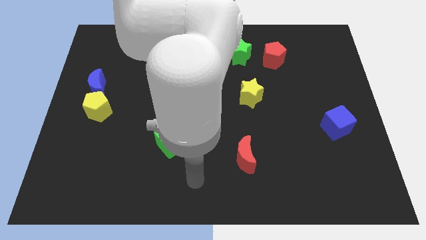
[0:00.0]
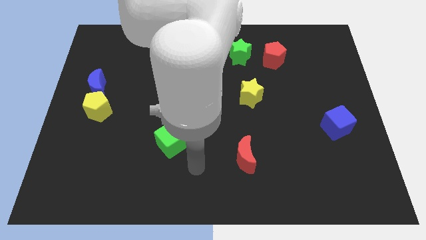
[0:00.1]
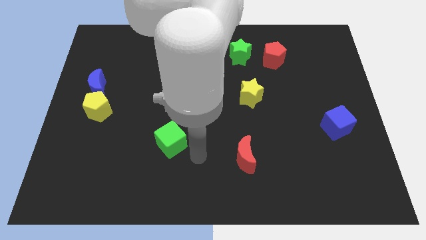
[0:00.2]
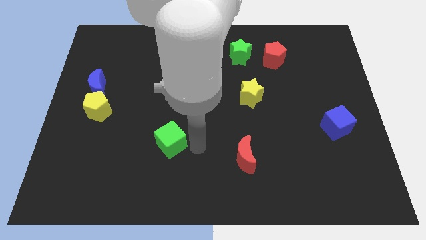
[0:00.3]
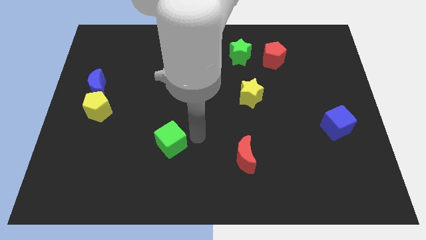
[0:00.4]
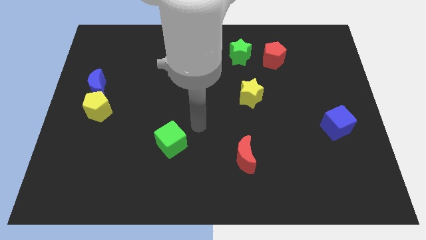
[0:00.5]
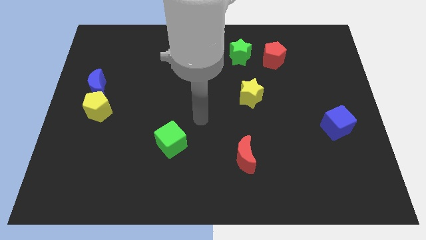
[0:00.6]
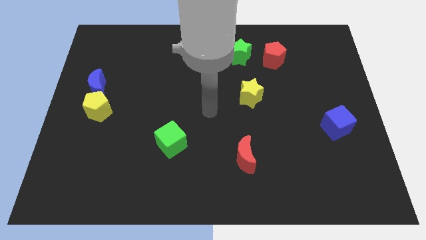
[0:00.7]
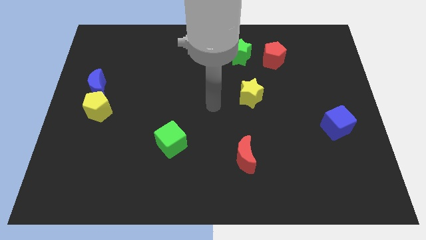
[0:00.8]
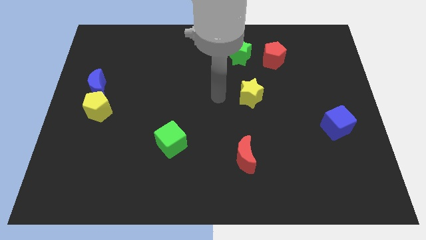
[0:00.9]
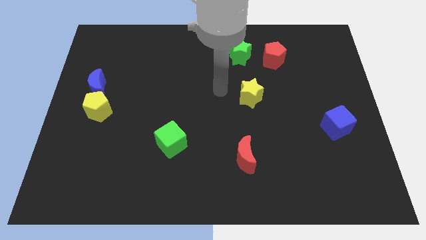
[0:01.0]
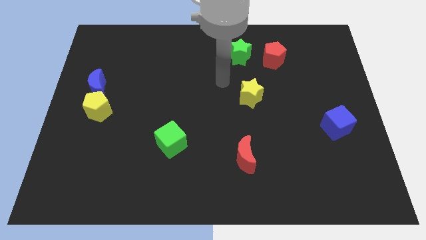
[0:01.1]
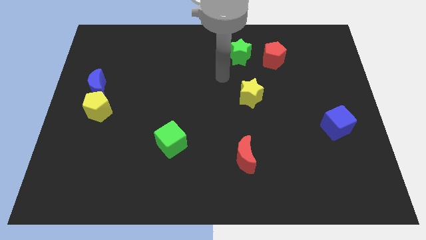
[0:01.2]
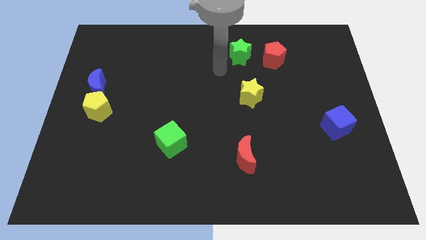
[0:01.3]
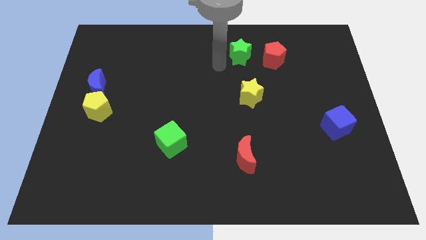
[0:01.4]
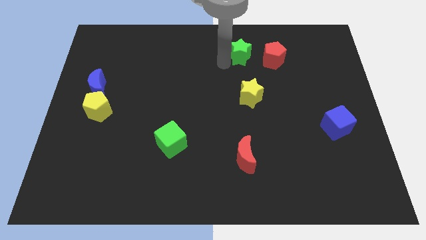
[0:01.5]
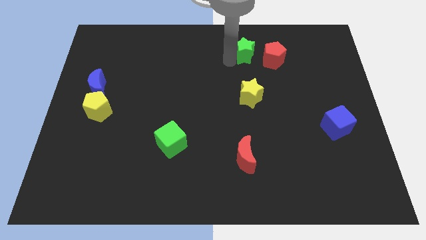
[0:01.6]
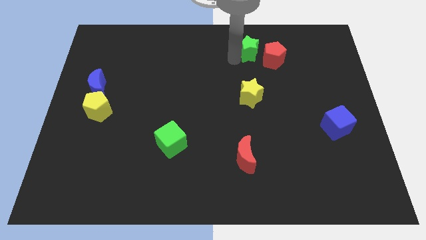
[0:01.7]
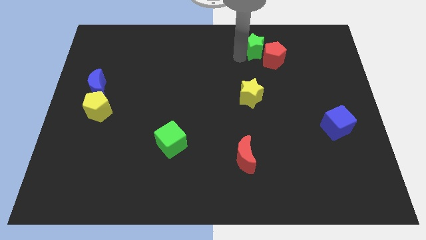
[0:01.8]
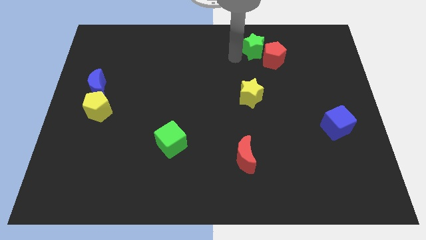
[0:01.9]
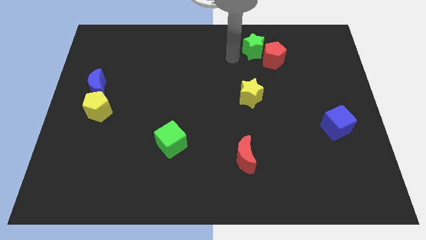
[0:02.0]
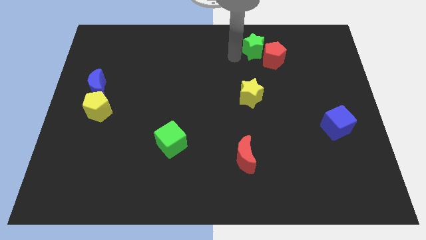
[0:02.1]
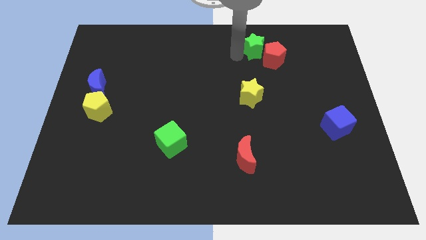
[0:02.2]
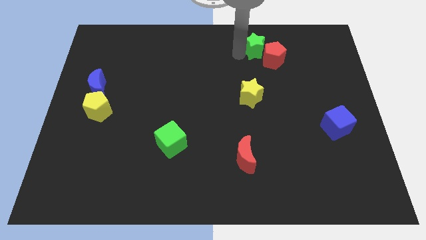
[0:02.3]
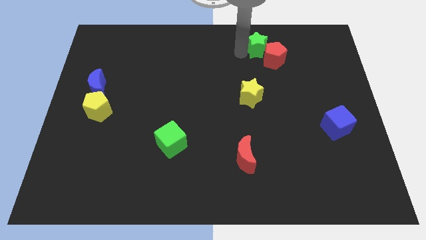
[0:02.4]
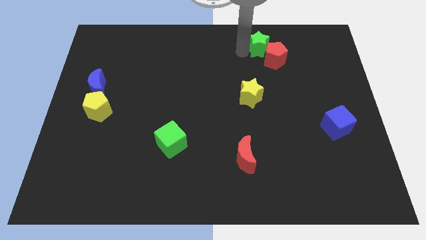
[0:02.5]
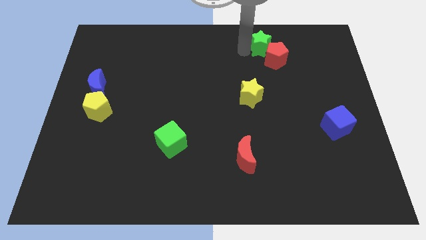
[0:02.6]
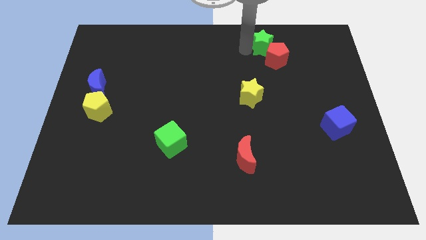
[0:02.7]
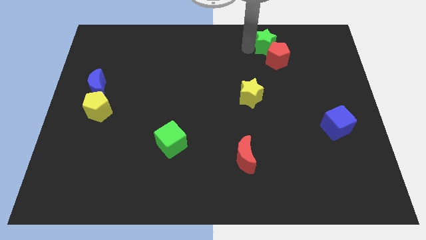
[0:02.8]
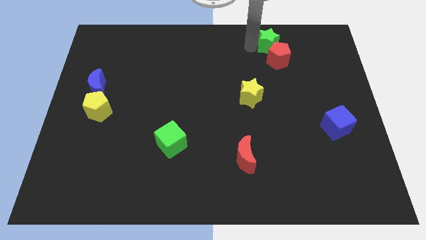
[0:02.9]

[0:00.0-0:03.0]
slide the green star to the right slightly

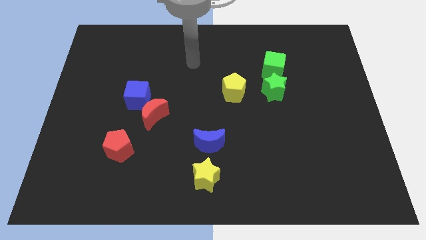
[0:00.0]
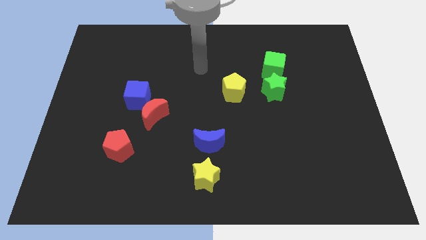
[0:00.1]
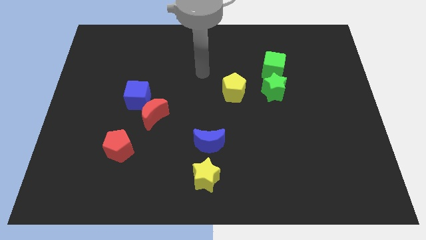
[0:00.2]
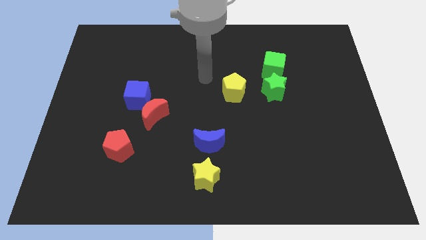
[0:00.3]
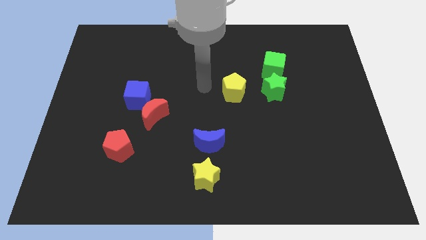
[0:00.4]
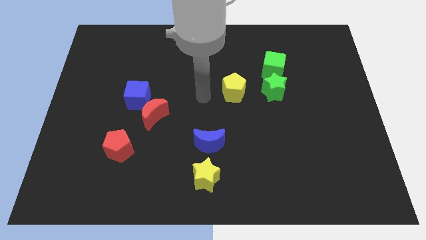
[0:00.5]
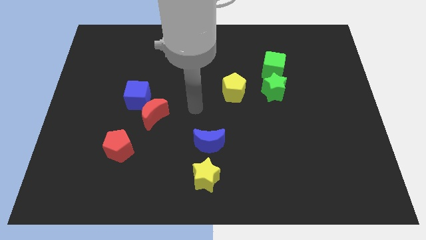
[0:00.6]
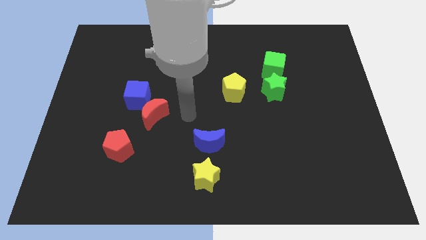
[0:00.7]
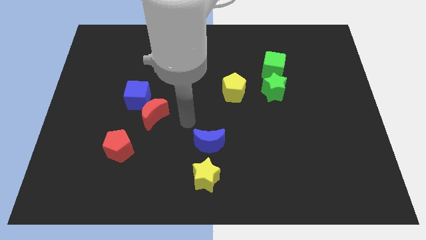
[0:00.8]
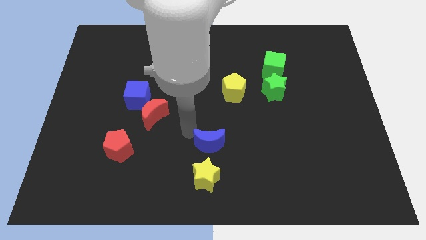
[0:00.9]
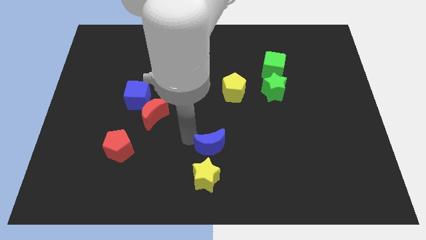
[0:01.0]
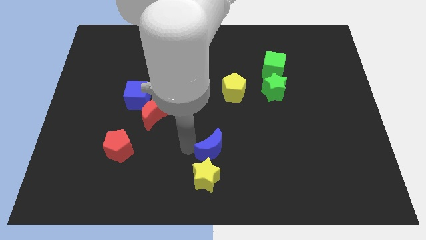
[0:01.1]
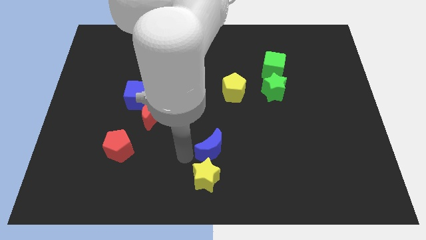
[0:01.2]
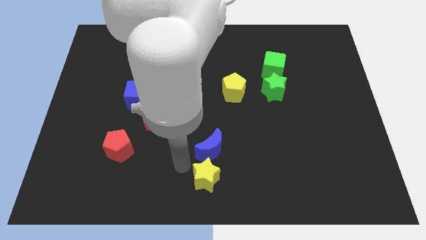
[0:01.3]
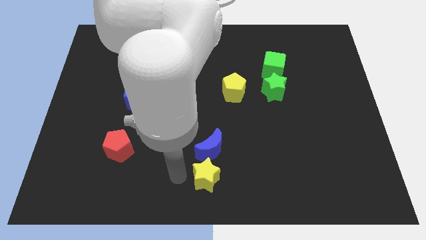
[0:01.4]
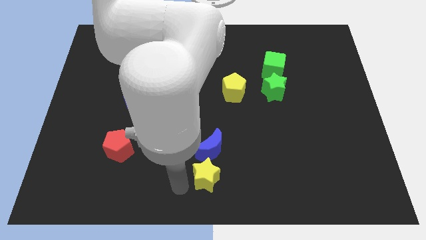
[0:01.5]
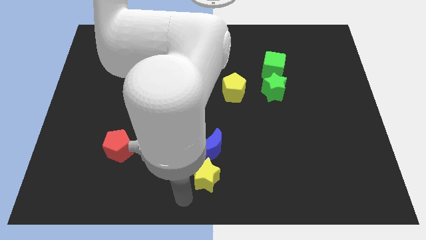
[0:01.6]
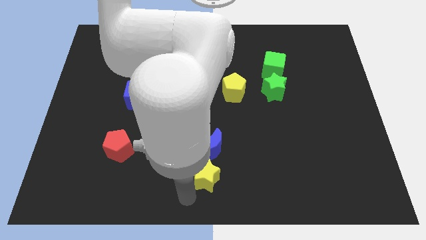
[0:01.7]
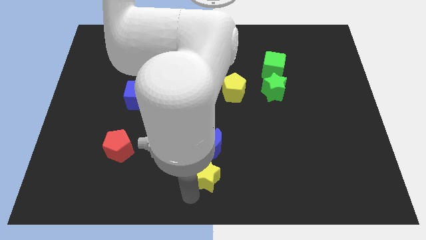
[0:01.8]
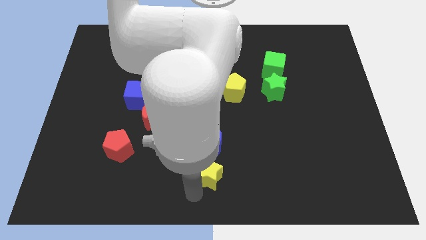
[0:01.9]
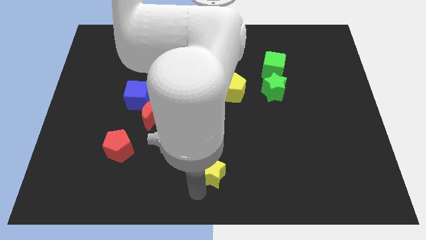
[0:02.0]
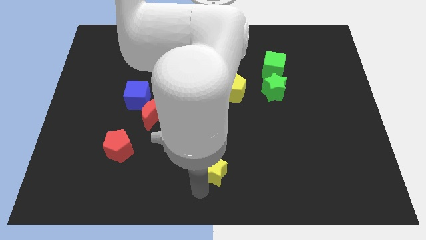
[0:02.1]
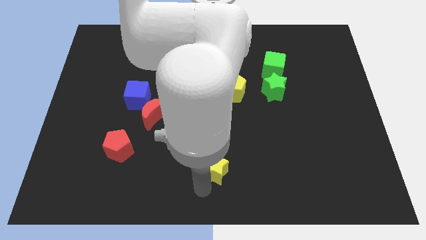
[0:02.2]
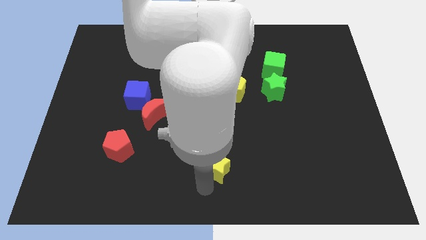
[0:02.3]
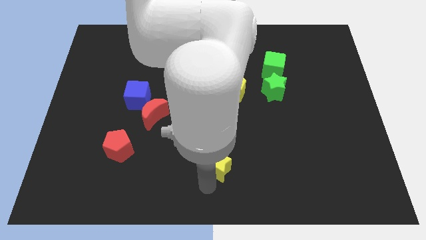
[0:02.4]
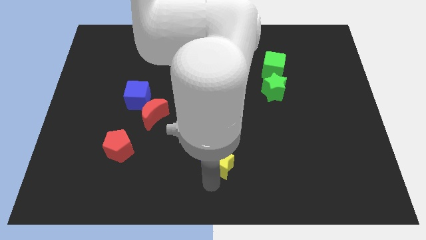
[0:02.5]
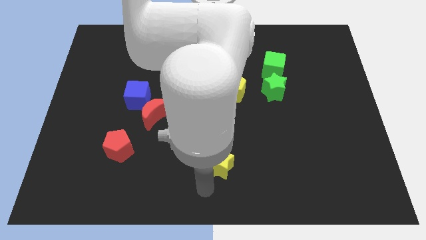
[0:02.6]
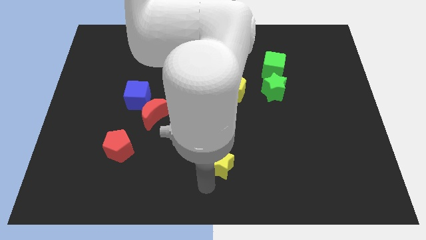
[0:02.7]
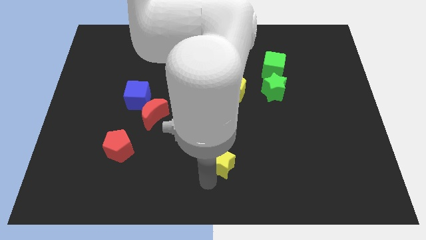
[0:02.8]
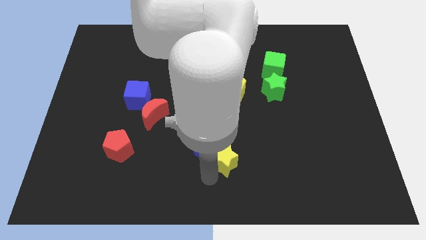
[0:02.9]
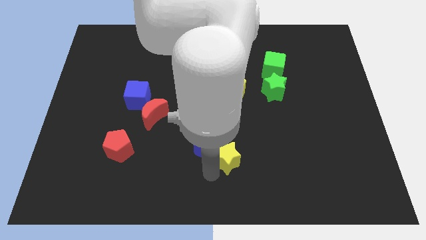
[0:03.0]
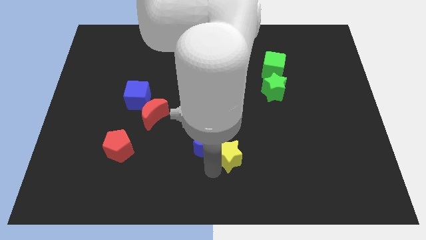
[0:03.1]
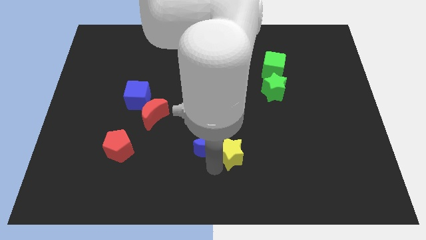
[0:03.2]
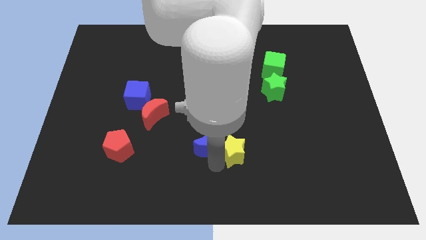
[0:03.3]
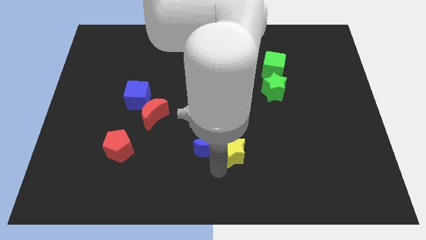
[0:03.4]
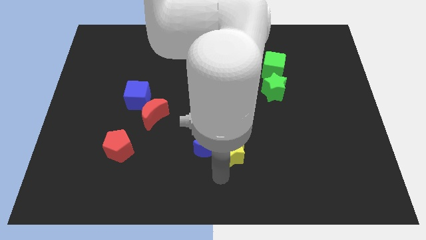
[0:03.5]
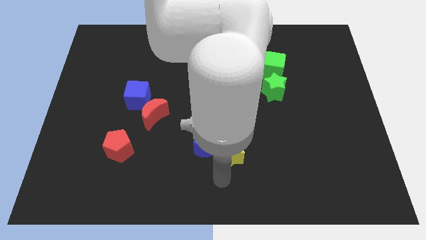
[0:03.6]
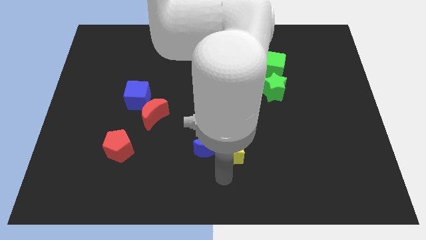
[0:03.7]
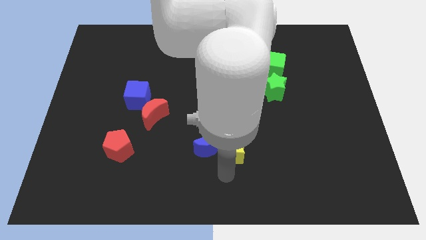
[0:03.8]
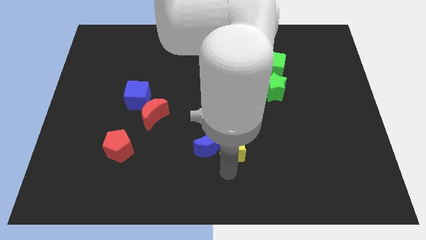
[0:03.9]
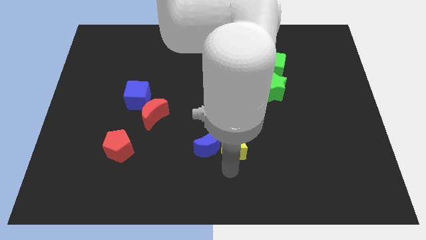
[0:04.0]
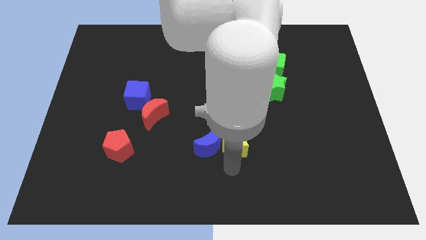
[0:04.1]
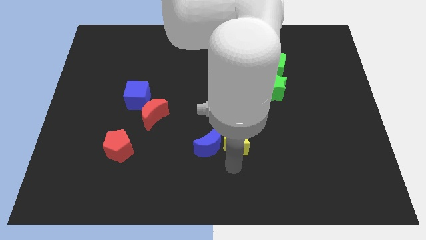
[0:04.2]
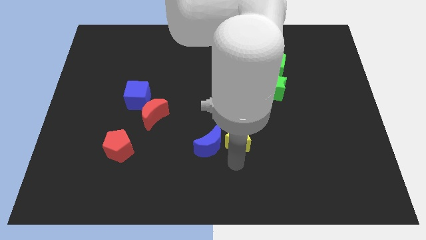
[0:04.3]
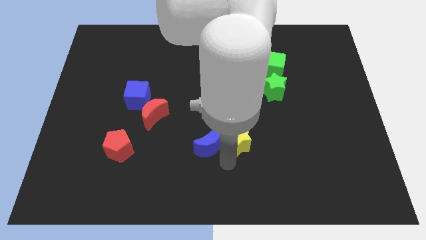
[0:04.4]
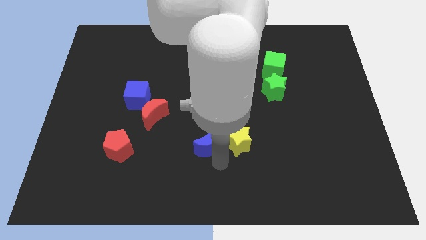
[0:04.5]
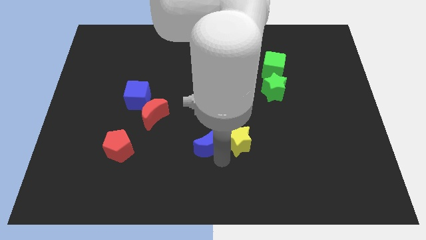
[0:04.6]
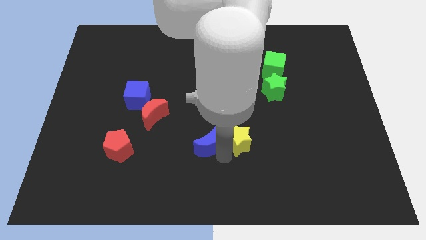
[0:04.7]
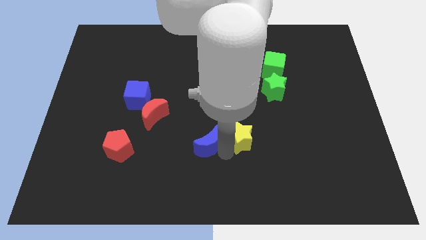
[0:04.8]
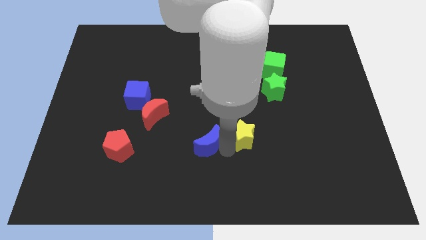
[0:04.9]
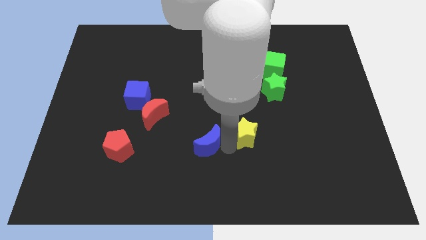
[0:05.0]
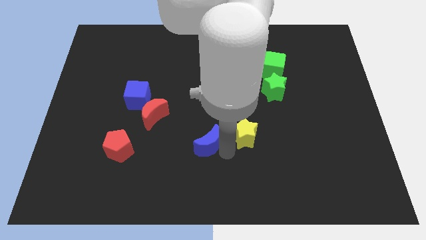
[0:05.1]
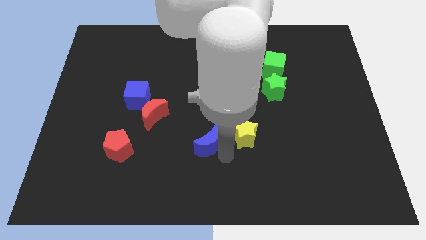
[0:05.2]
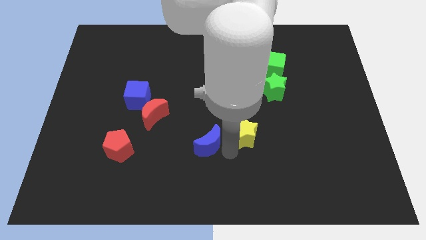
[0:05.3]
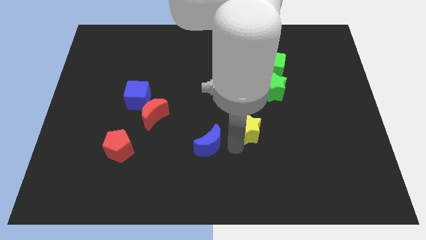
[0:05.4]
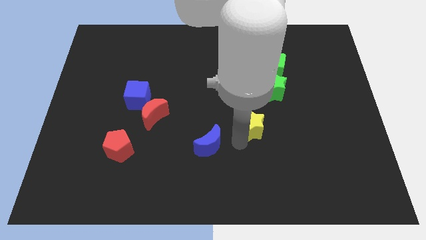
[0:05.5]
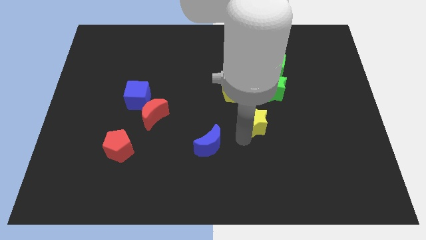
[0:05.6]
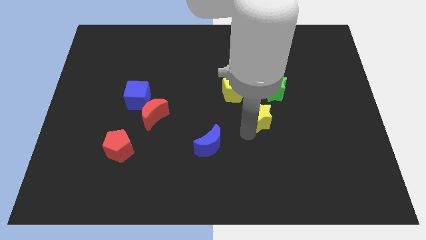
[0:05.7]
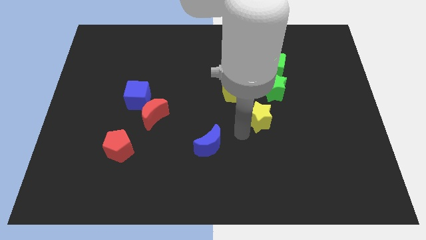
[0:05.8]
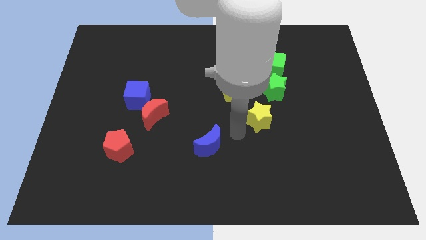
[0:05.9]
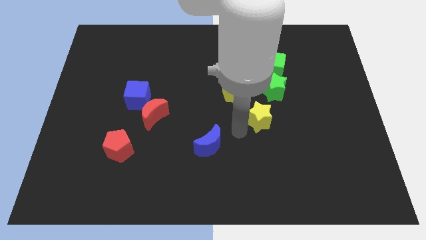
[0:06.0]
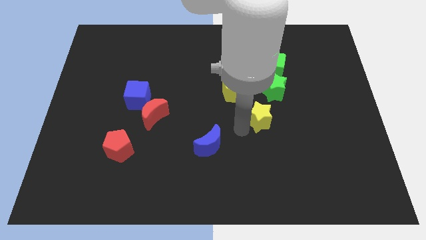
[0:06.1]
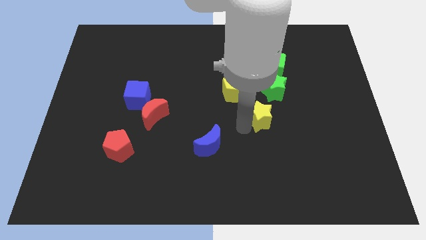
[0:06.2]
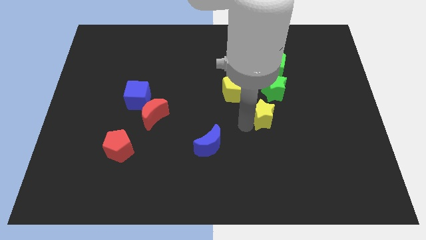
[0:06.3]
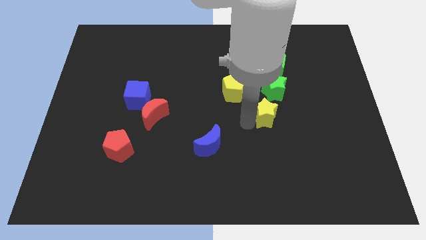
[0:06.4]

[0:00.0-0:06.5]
move the yellow star upwards and then right
